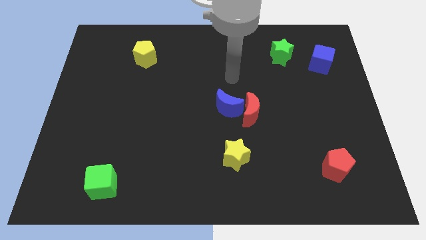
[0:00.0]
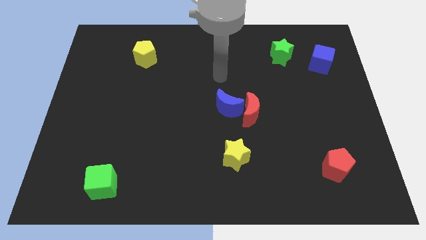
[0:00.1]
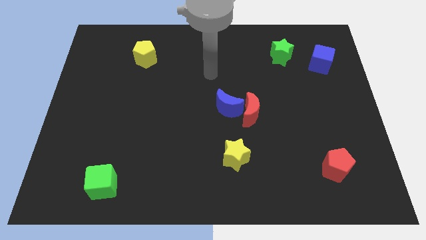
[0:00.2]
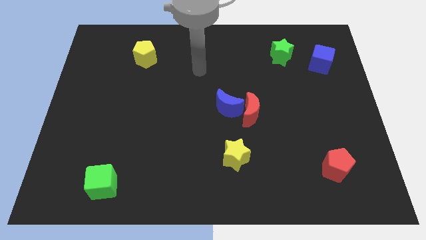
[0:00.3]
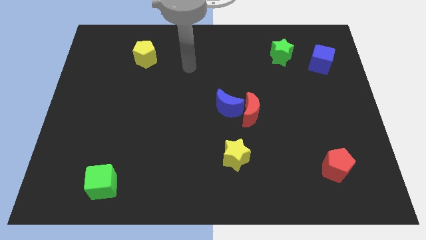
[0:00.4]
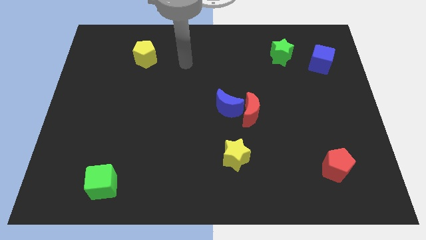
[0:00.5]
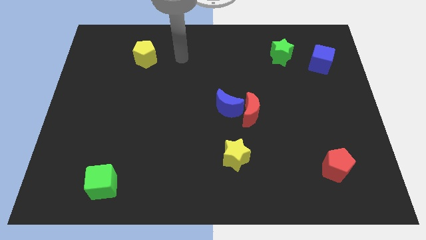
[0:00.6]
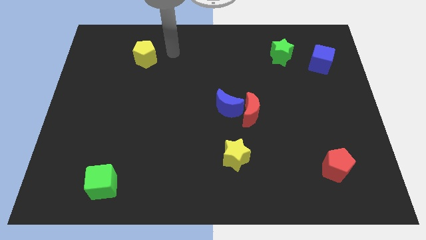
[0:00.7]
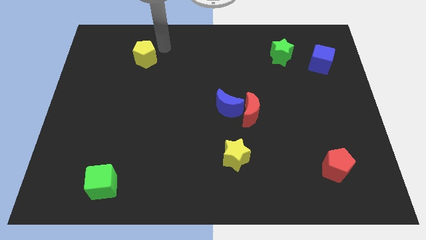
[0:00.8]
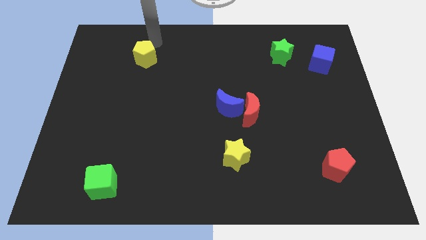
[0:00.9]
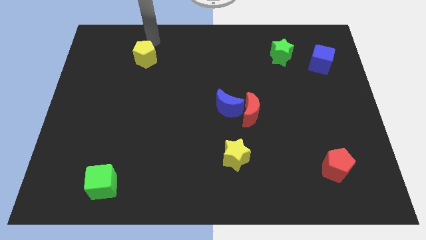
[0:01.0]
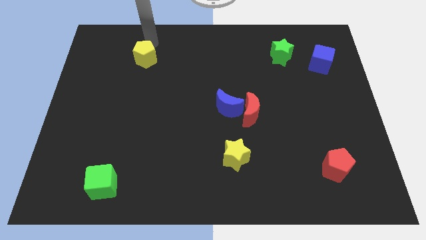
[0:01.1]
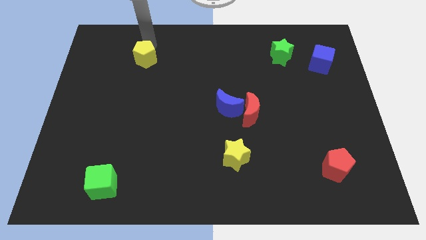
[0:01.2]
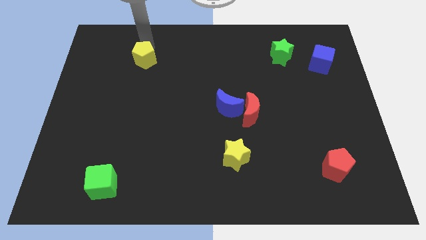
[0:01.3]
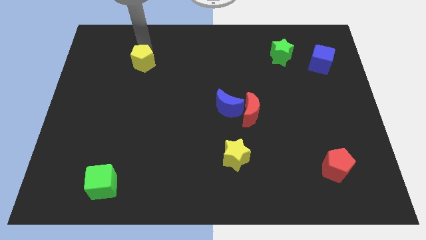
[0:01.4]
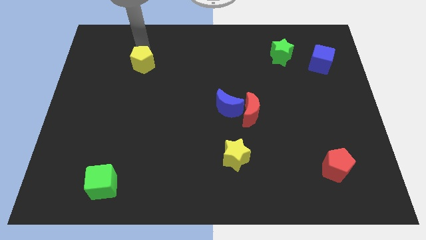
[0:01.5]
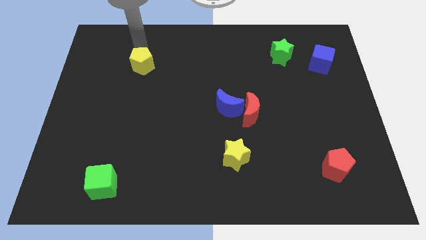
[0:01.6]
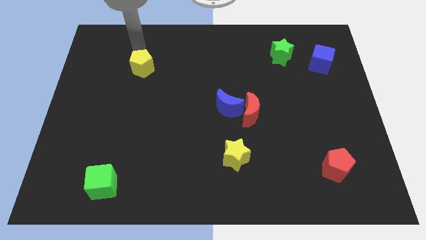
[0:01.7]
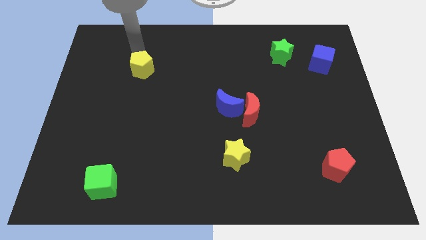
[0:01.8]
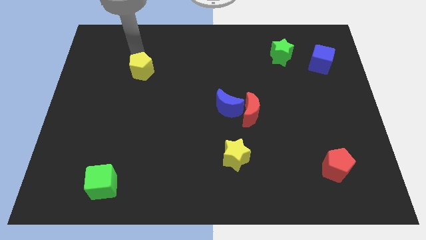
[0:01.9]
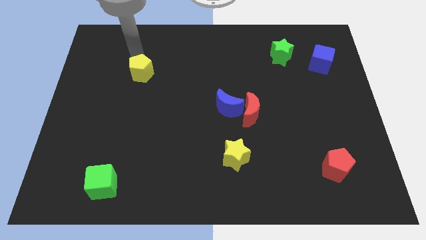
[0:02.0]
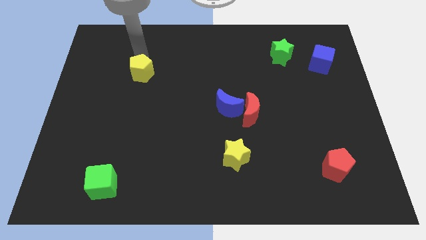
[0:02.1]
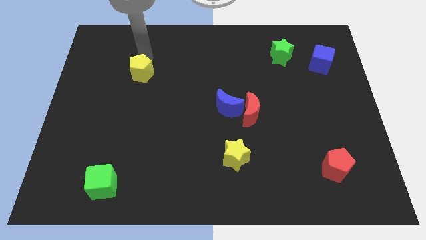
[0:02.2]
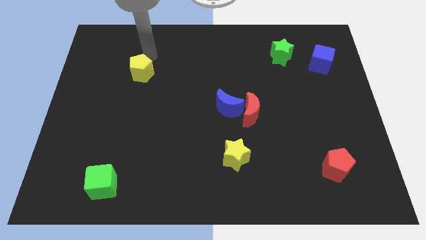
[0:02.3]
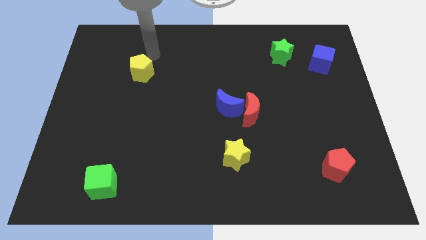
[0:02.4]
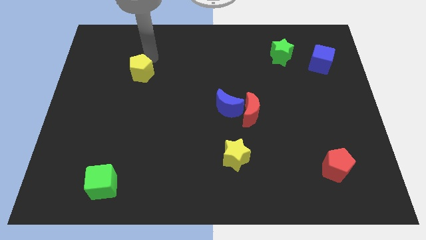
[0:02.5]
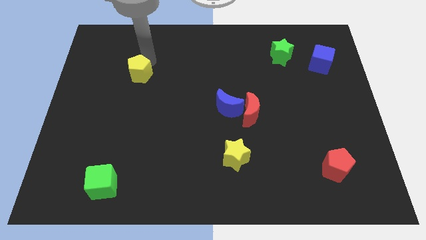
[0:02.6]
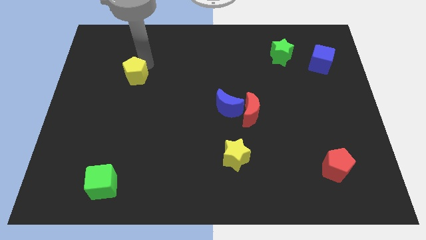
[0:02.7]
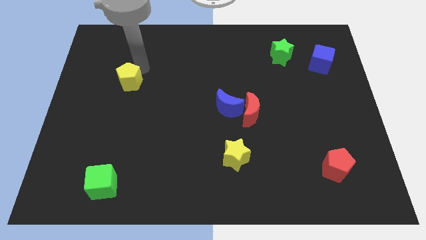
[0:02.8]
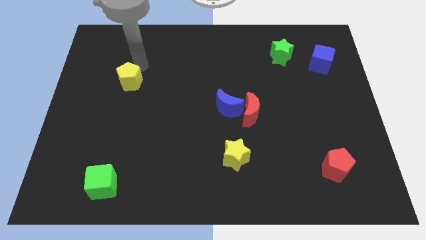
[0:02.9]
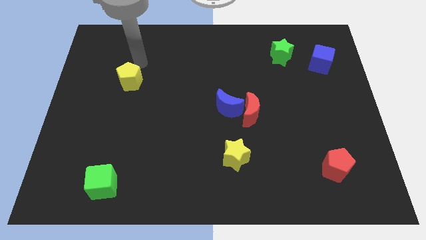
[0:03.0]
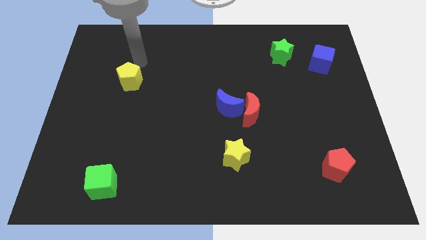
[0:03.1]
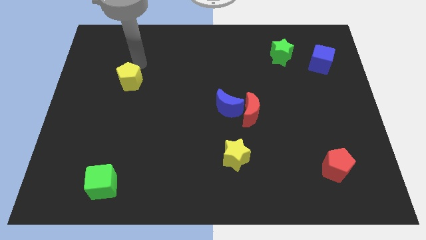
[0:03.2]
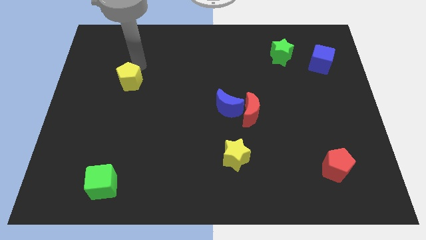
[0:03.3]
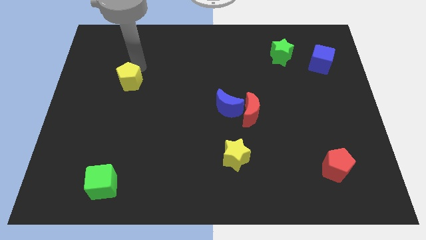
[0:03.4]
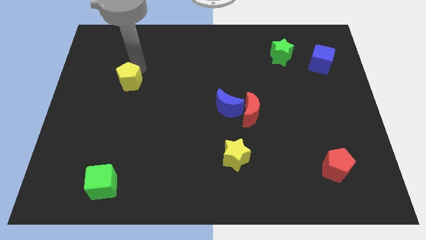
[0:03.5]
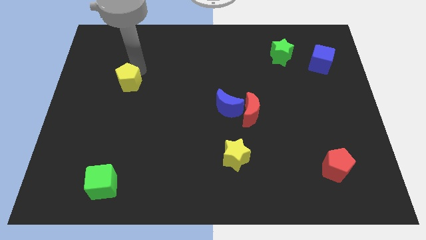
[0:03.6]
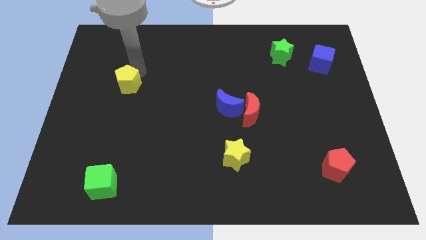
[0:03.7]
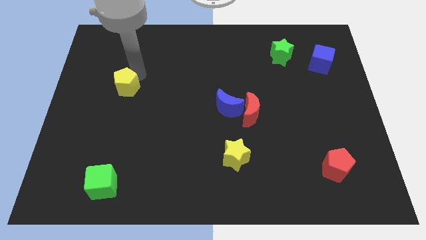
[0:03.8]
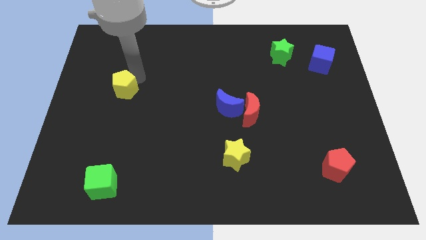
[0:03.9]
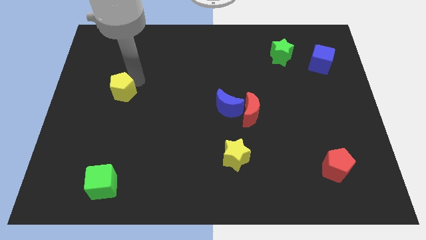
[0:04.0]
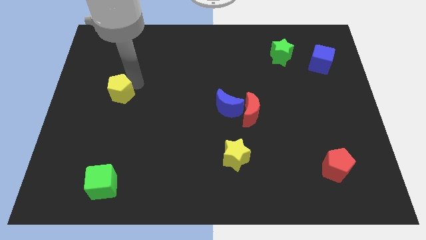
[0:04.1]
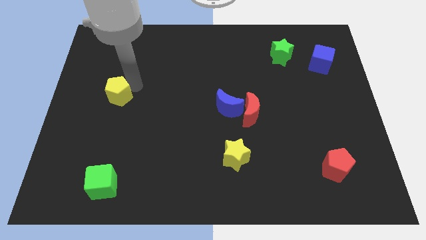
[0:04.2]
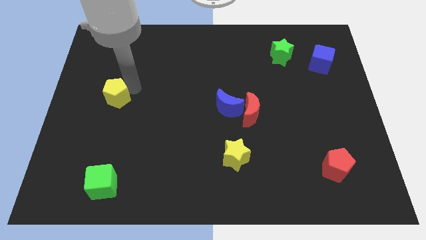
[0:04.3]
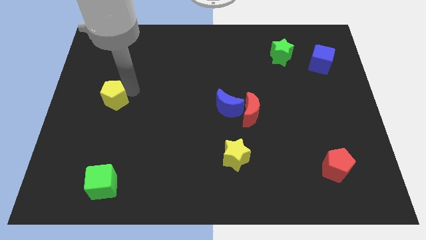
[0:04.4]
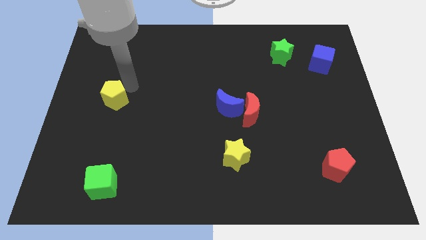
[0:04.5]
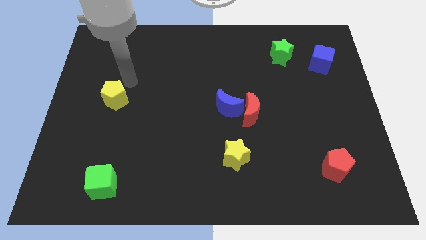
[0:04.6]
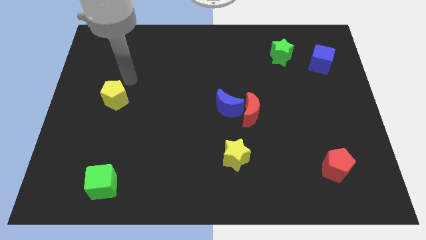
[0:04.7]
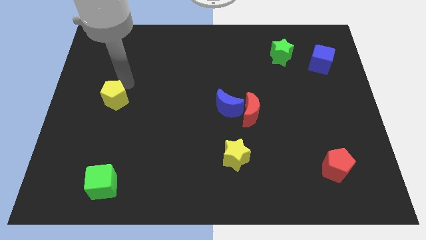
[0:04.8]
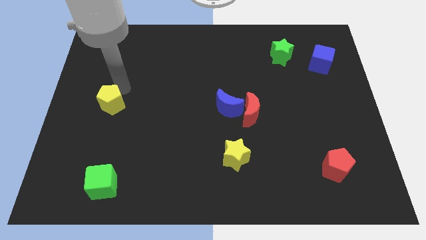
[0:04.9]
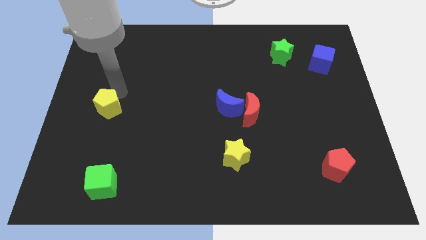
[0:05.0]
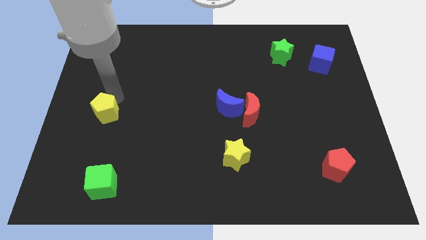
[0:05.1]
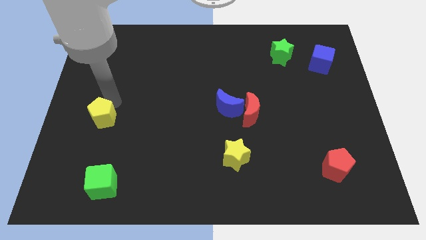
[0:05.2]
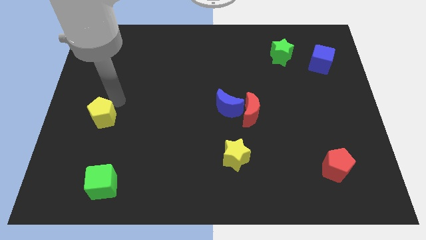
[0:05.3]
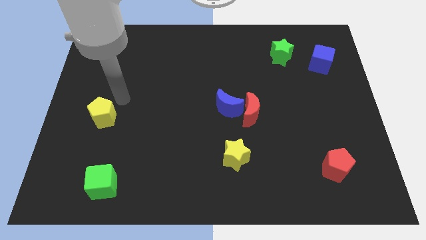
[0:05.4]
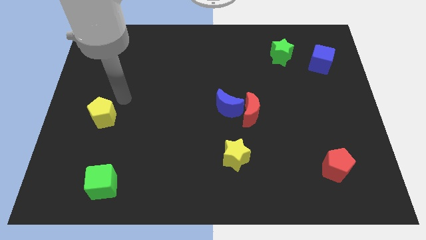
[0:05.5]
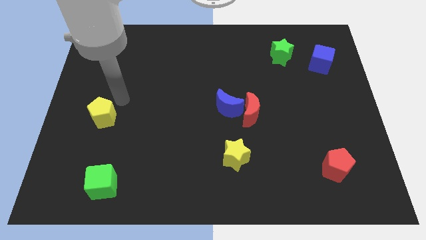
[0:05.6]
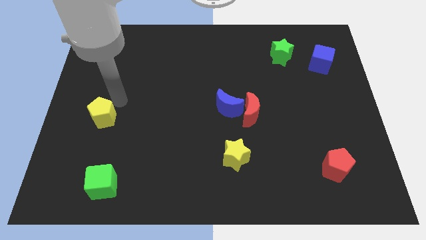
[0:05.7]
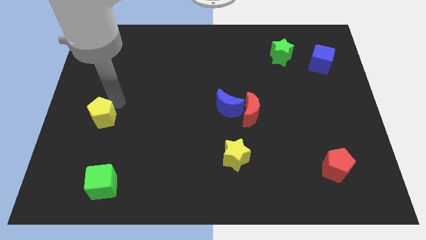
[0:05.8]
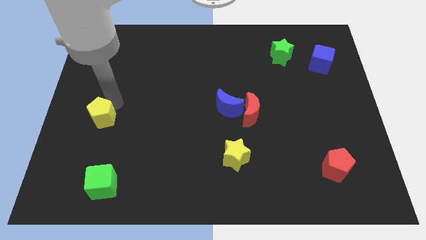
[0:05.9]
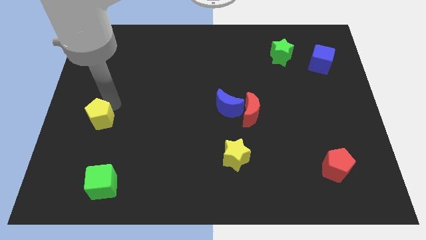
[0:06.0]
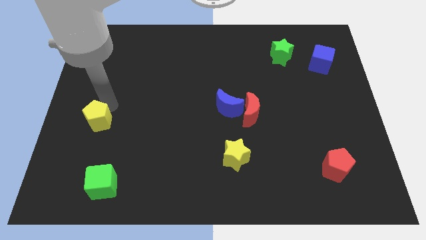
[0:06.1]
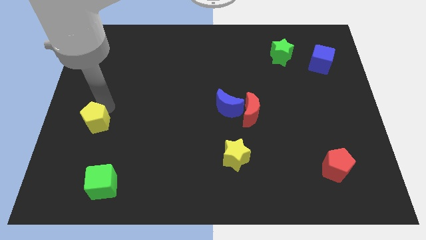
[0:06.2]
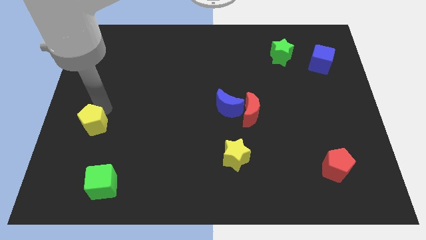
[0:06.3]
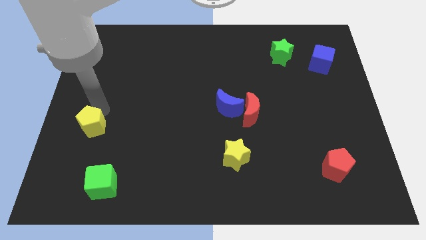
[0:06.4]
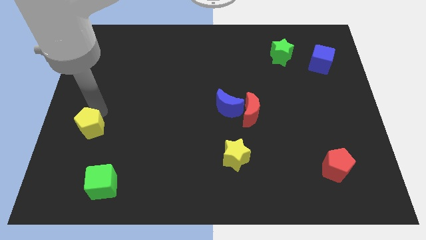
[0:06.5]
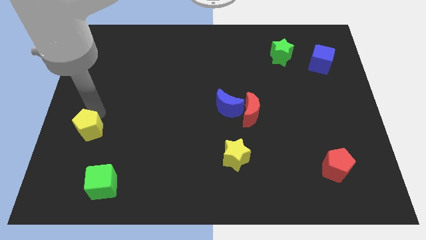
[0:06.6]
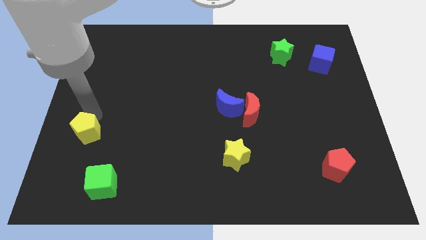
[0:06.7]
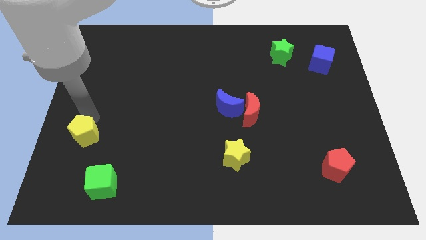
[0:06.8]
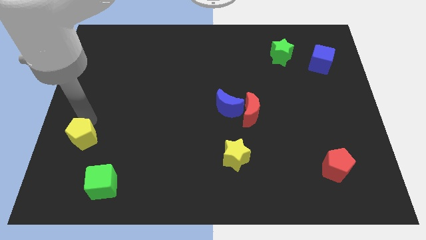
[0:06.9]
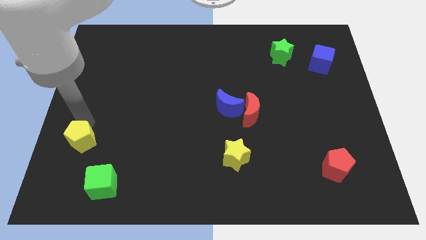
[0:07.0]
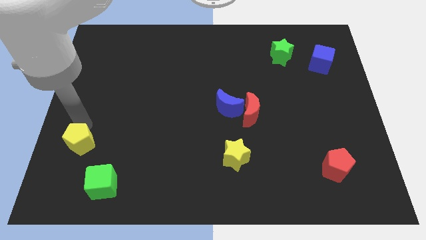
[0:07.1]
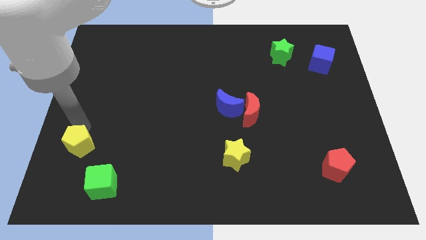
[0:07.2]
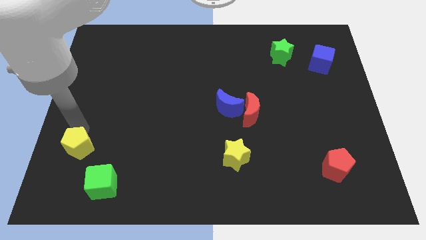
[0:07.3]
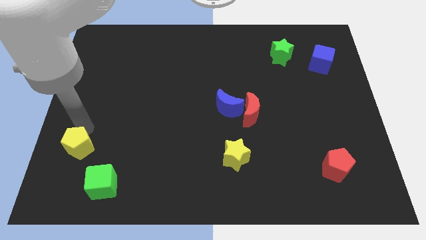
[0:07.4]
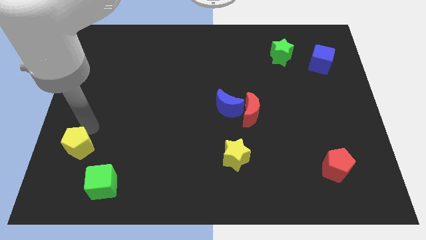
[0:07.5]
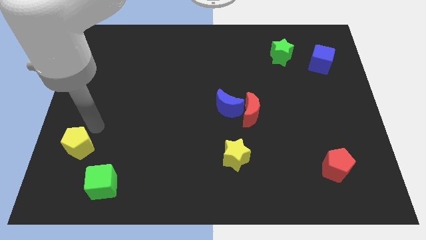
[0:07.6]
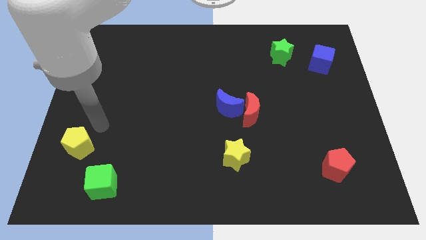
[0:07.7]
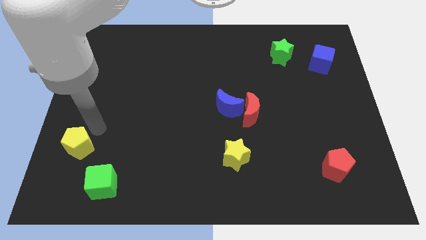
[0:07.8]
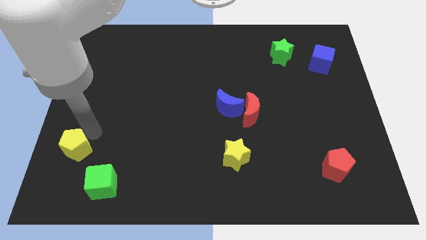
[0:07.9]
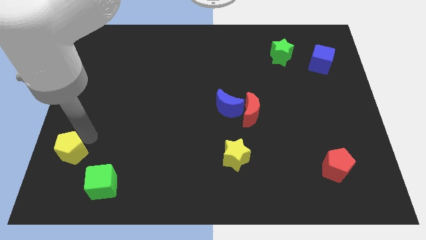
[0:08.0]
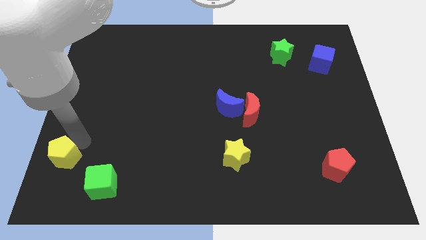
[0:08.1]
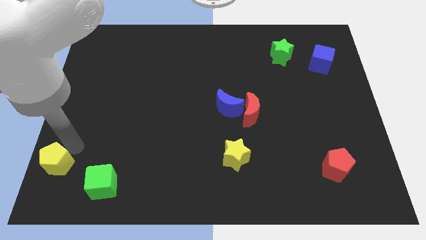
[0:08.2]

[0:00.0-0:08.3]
push the yellow pentagon to the lower left corner
